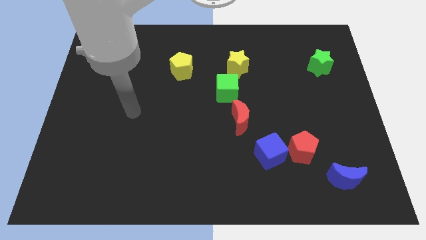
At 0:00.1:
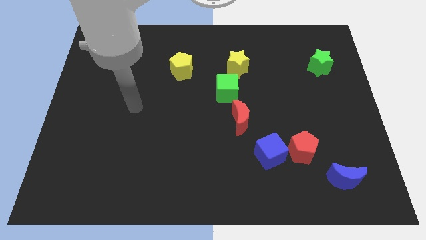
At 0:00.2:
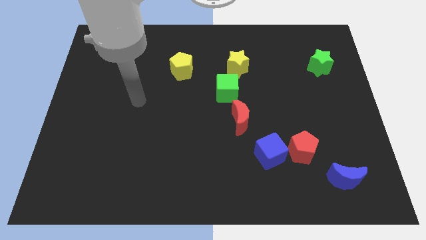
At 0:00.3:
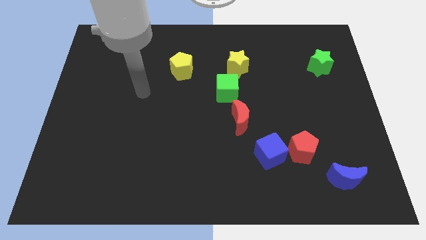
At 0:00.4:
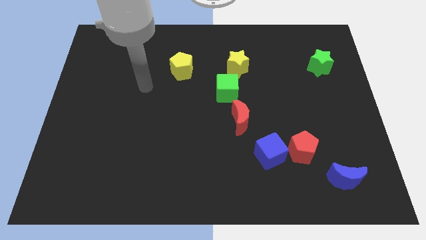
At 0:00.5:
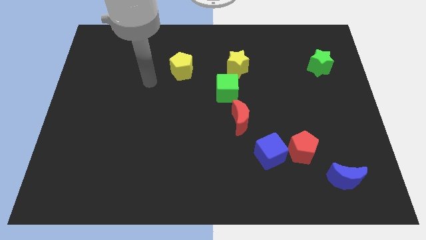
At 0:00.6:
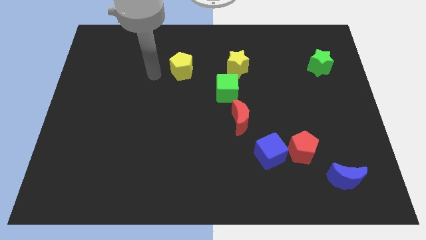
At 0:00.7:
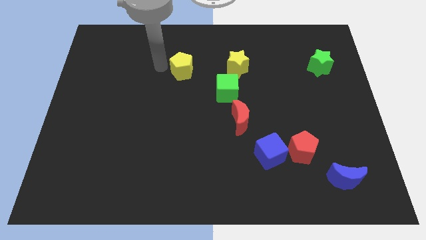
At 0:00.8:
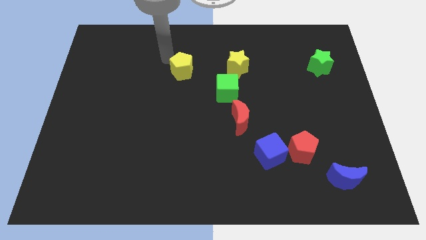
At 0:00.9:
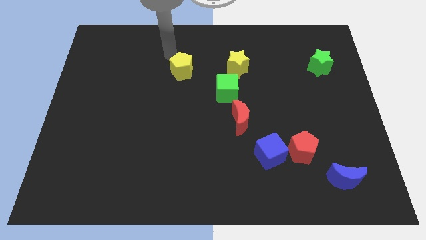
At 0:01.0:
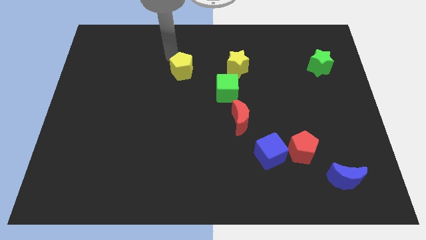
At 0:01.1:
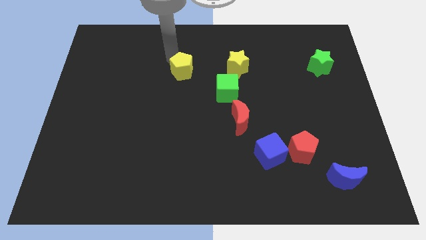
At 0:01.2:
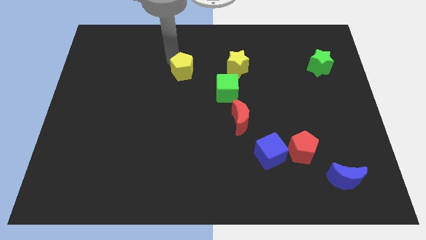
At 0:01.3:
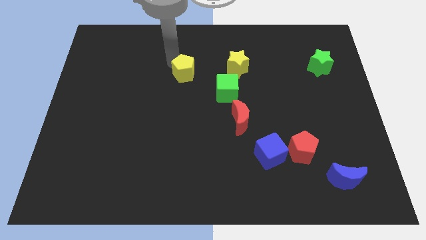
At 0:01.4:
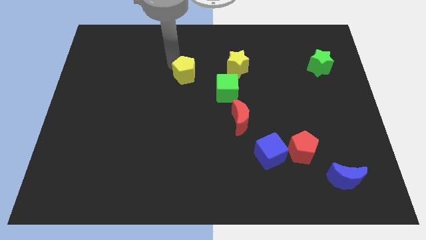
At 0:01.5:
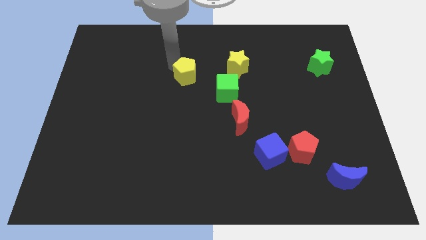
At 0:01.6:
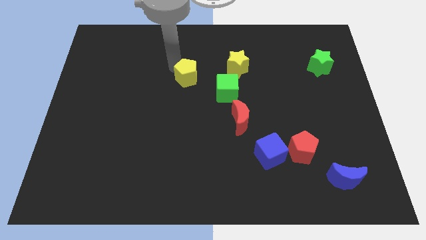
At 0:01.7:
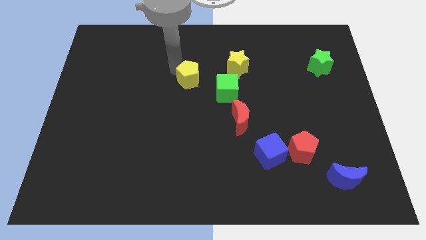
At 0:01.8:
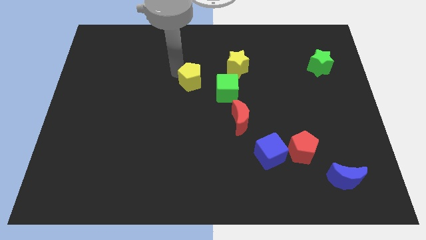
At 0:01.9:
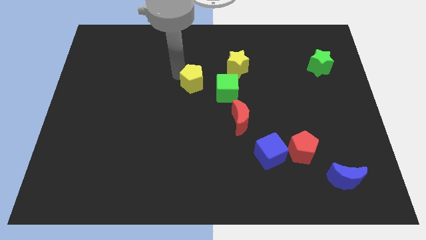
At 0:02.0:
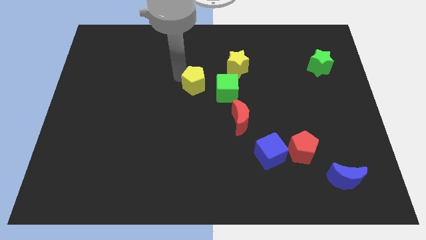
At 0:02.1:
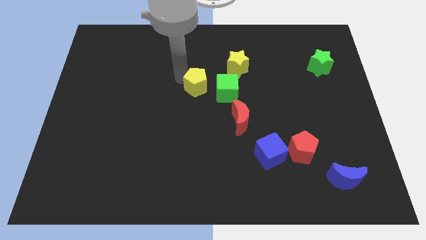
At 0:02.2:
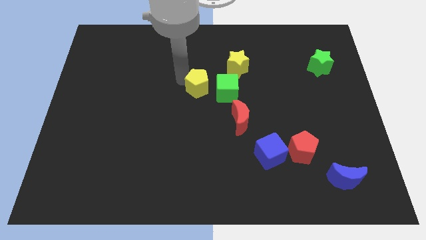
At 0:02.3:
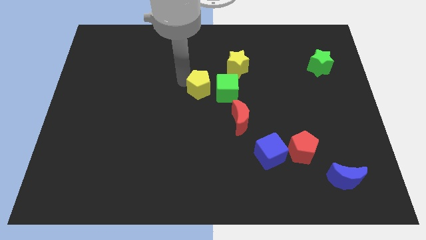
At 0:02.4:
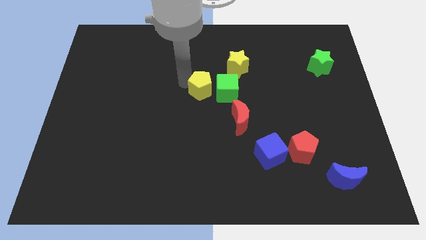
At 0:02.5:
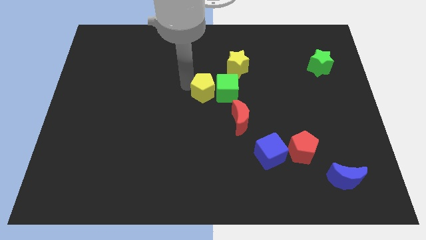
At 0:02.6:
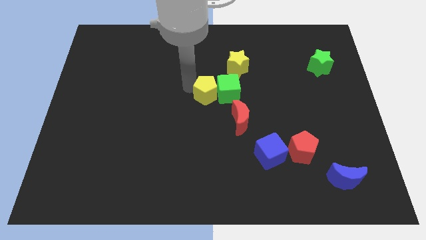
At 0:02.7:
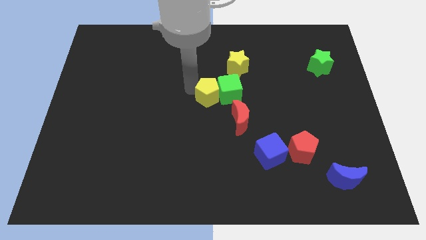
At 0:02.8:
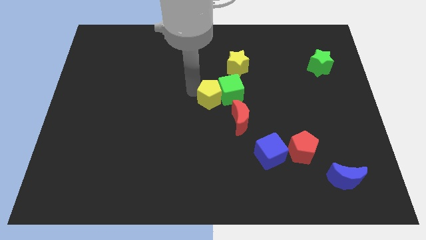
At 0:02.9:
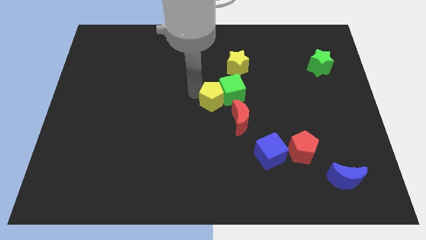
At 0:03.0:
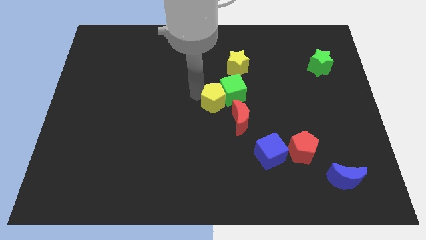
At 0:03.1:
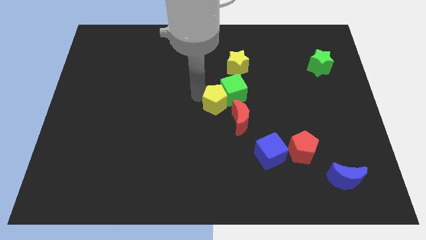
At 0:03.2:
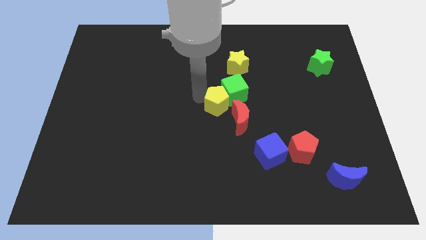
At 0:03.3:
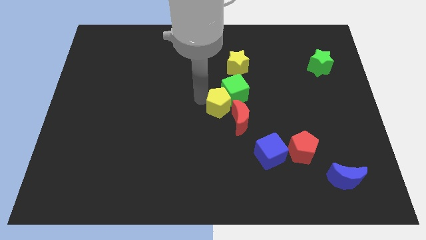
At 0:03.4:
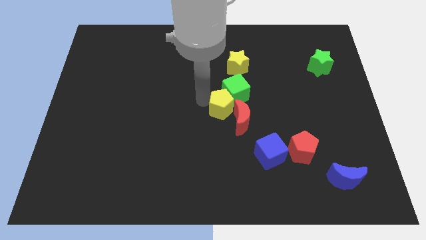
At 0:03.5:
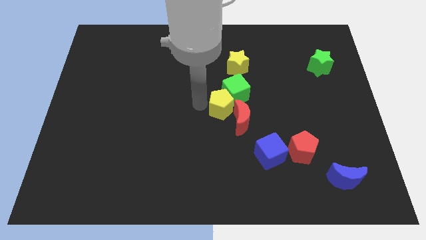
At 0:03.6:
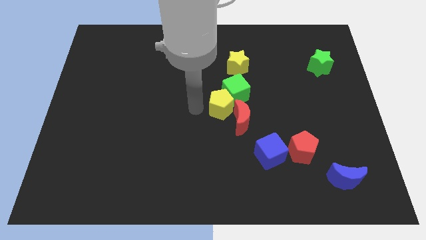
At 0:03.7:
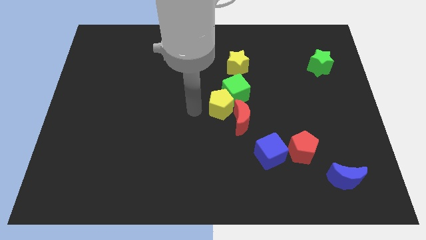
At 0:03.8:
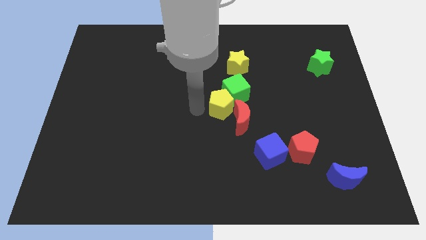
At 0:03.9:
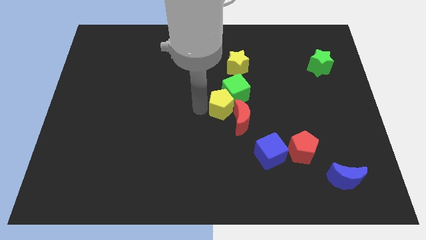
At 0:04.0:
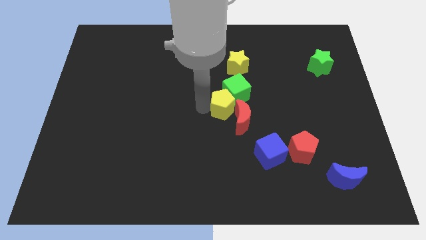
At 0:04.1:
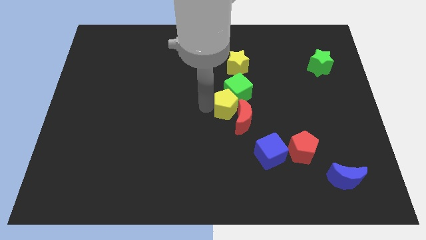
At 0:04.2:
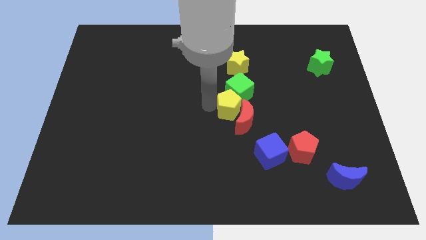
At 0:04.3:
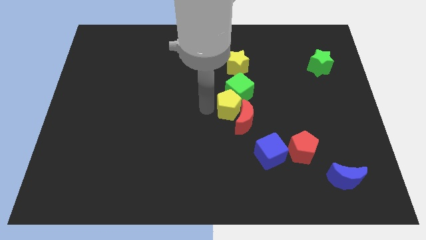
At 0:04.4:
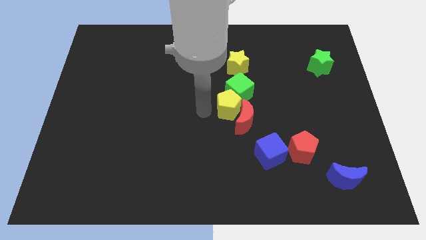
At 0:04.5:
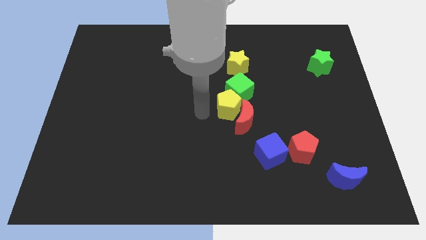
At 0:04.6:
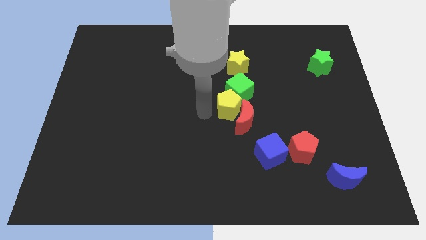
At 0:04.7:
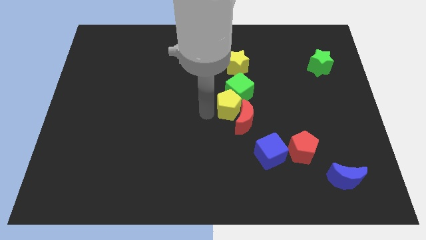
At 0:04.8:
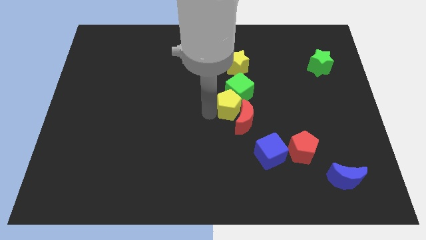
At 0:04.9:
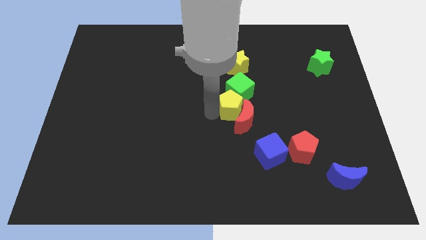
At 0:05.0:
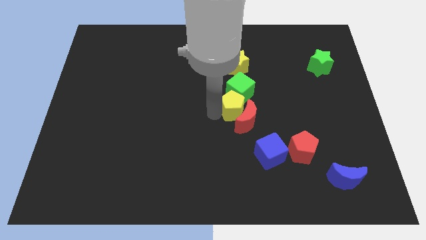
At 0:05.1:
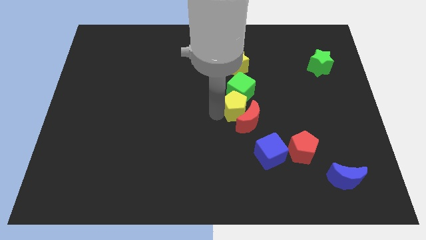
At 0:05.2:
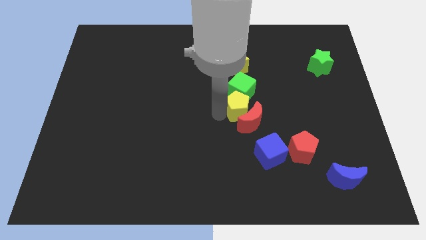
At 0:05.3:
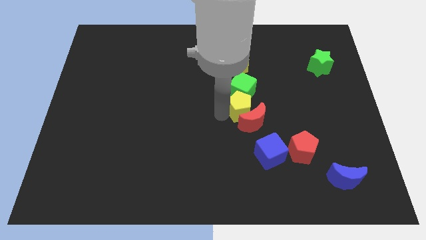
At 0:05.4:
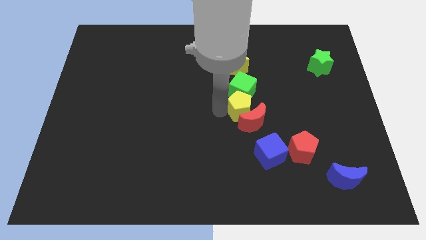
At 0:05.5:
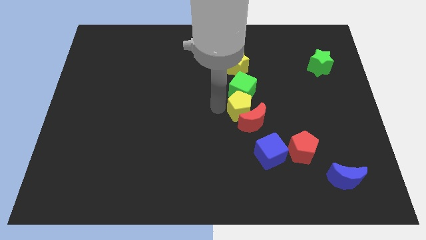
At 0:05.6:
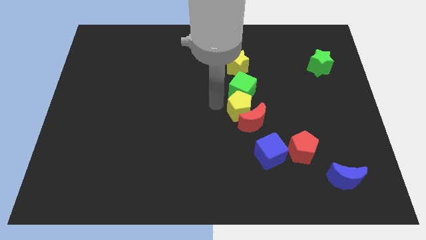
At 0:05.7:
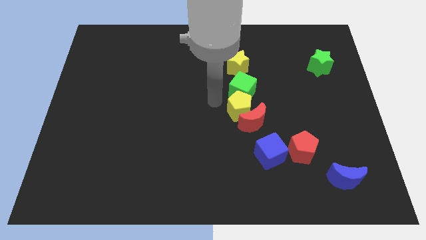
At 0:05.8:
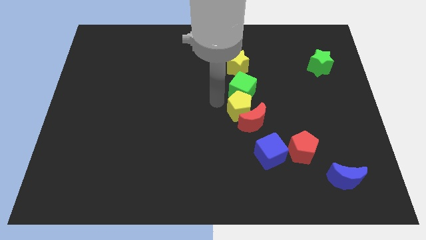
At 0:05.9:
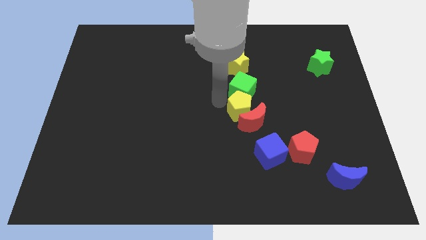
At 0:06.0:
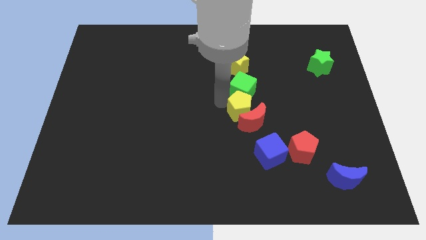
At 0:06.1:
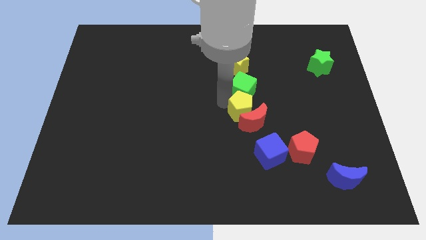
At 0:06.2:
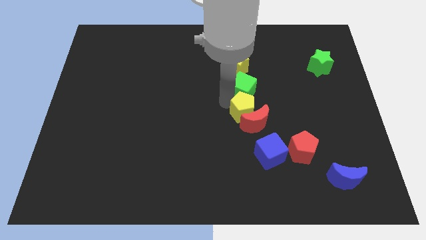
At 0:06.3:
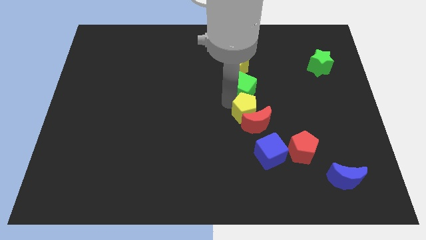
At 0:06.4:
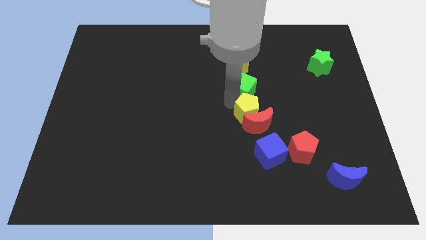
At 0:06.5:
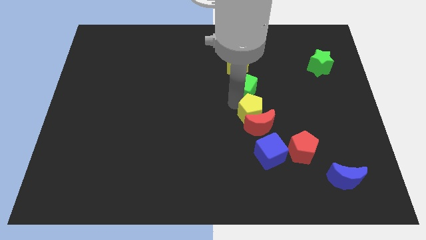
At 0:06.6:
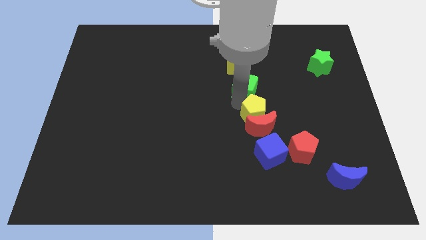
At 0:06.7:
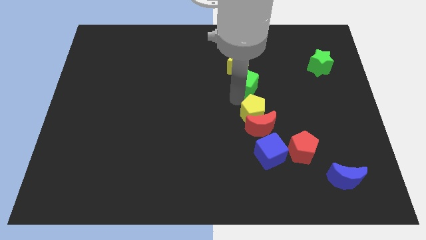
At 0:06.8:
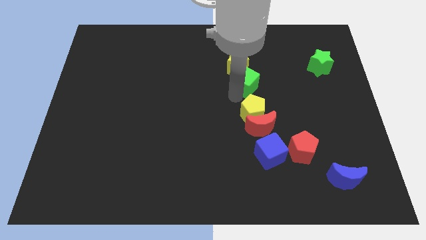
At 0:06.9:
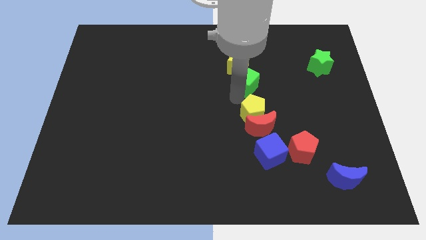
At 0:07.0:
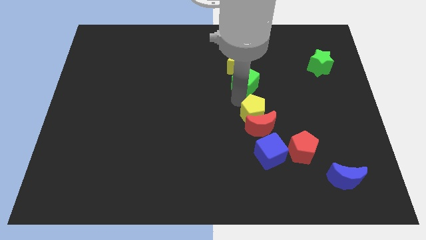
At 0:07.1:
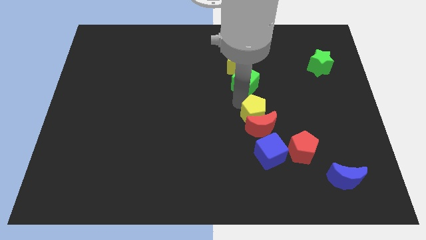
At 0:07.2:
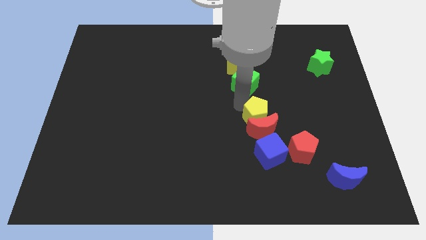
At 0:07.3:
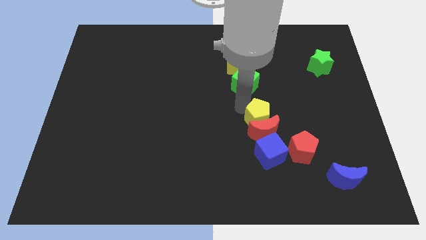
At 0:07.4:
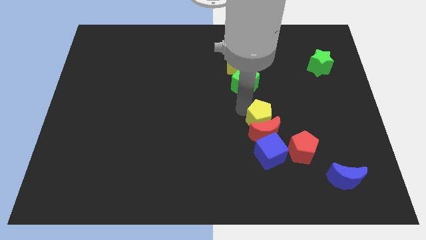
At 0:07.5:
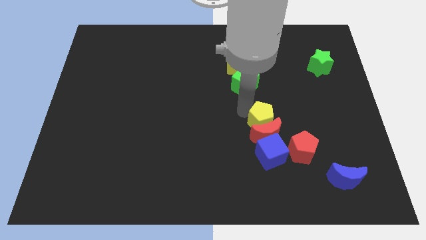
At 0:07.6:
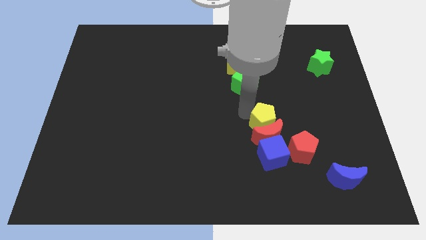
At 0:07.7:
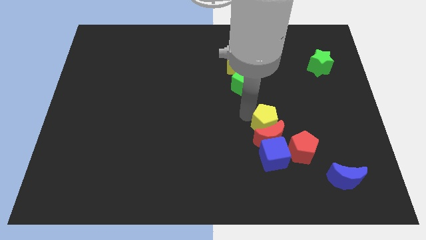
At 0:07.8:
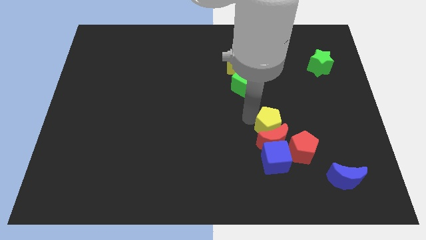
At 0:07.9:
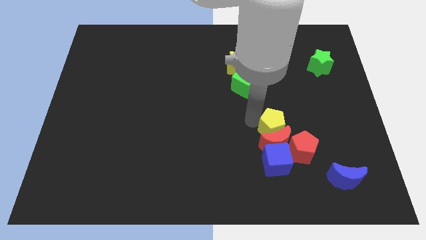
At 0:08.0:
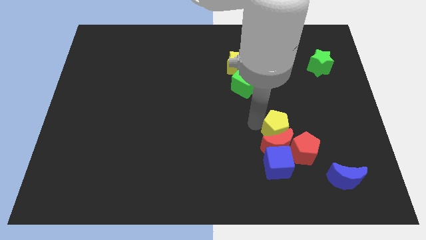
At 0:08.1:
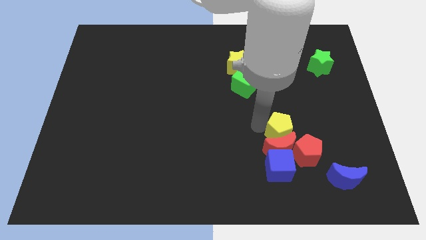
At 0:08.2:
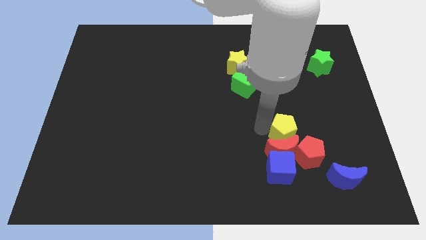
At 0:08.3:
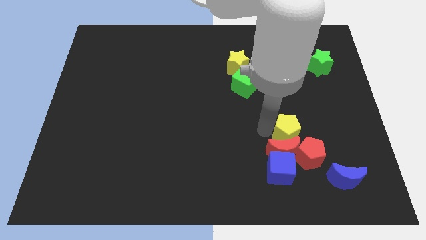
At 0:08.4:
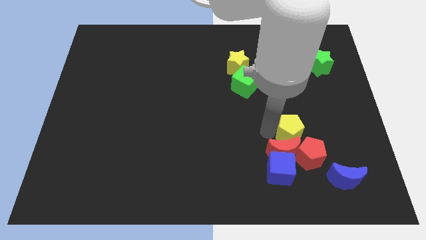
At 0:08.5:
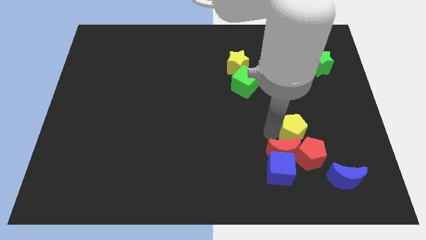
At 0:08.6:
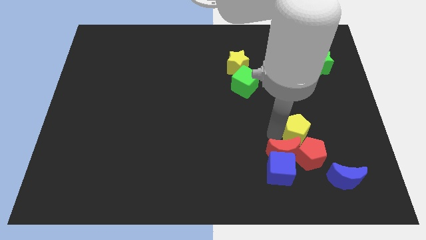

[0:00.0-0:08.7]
put the yellow pentagon to the red pentagon
